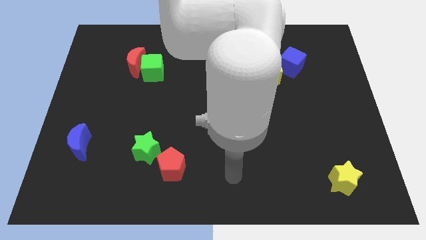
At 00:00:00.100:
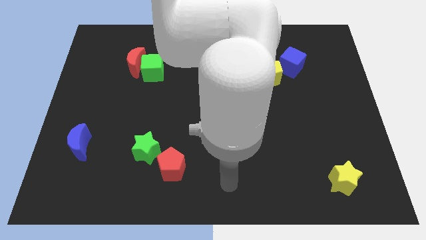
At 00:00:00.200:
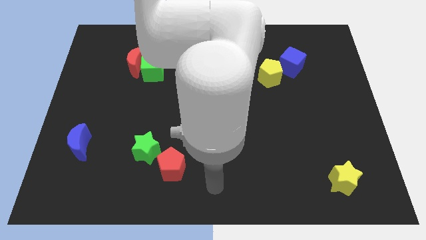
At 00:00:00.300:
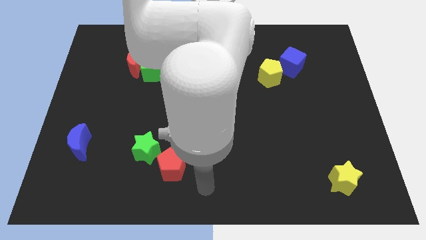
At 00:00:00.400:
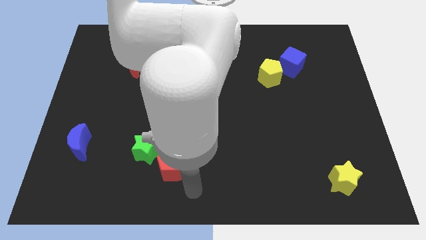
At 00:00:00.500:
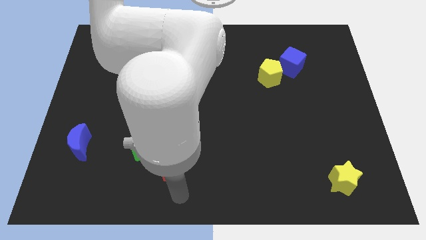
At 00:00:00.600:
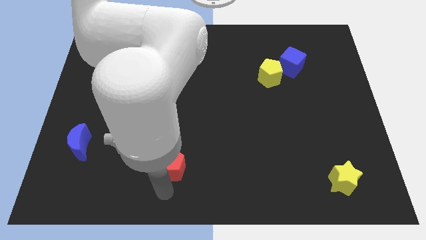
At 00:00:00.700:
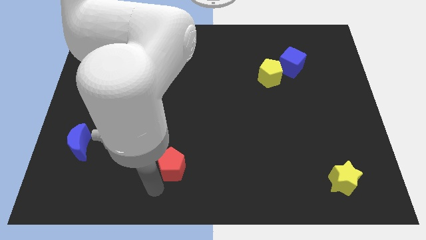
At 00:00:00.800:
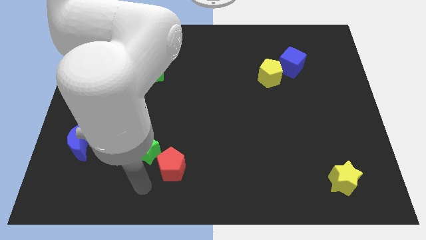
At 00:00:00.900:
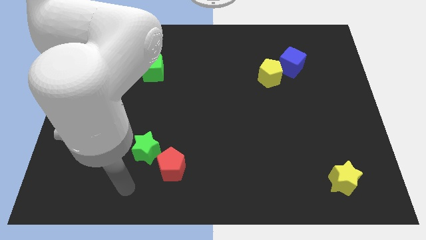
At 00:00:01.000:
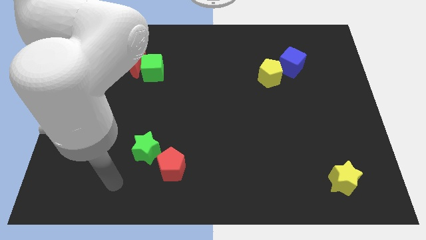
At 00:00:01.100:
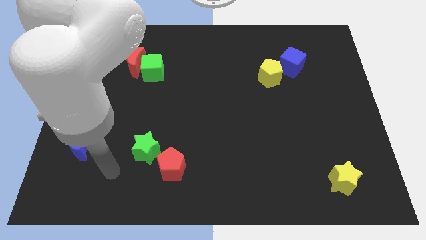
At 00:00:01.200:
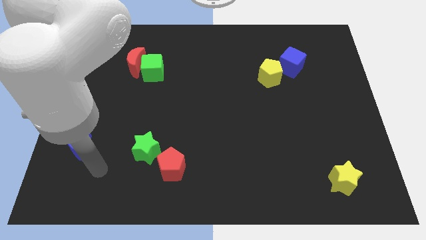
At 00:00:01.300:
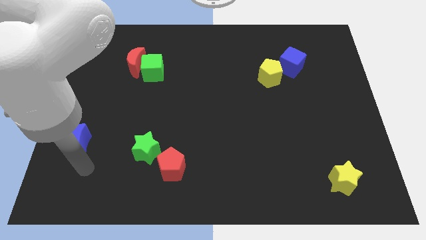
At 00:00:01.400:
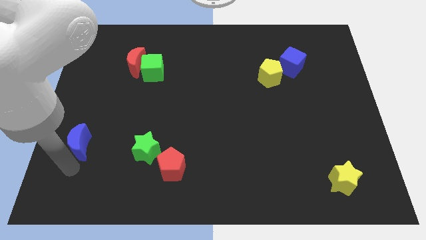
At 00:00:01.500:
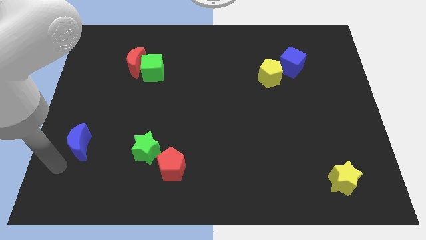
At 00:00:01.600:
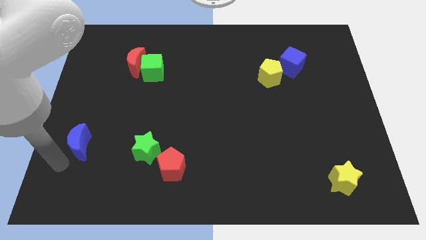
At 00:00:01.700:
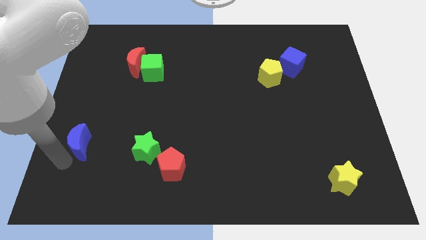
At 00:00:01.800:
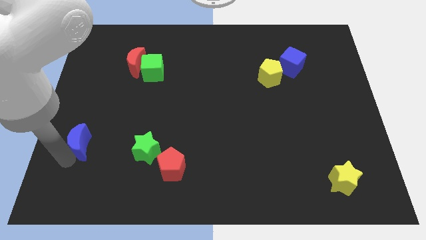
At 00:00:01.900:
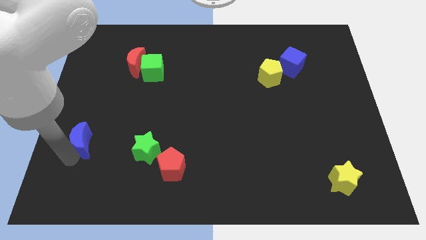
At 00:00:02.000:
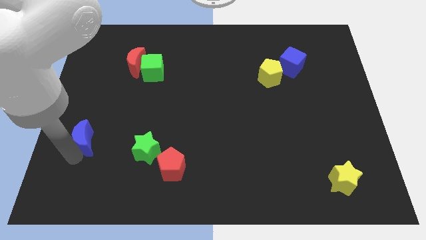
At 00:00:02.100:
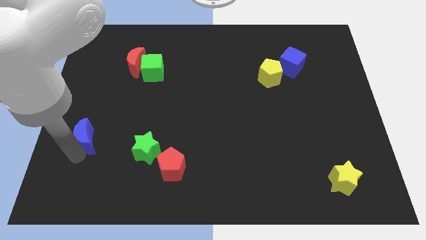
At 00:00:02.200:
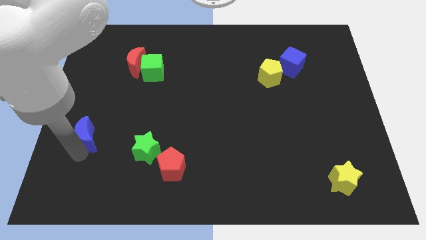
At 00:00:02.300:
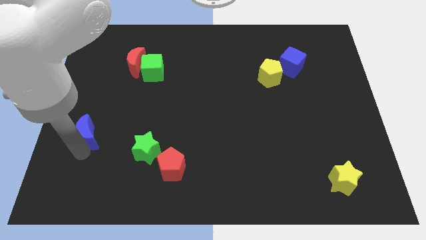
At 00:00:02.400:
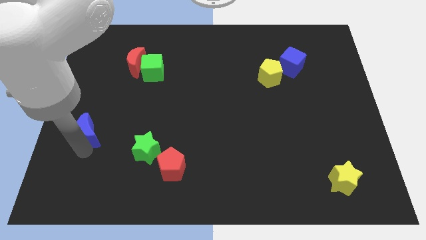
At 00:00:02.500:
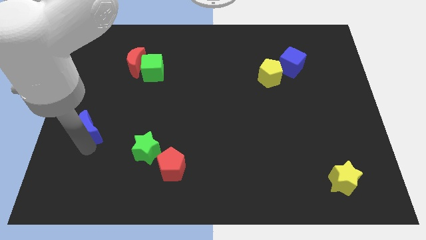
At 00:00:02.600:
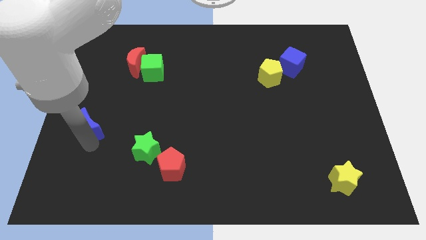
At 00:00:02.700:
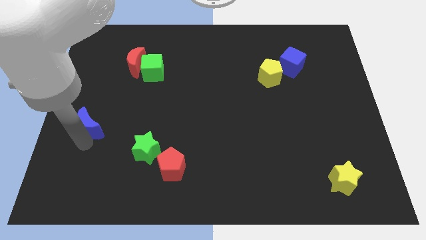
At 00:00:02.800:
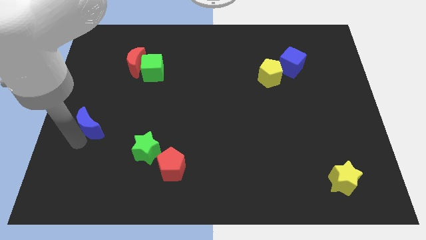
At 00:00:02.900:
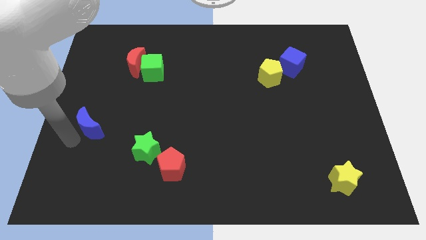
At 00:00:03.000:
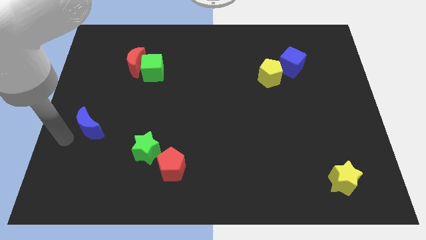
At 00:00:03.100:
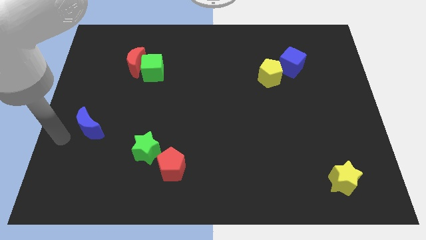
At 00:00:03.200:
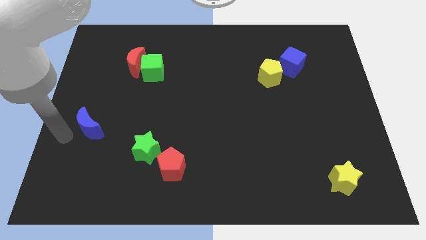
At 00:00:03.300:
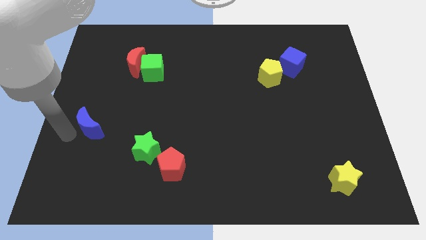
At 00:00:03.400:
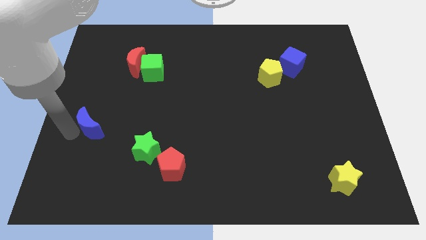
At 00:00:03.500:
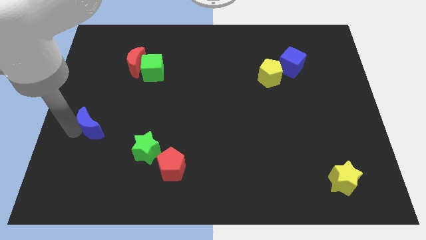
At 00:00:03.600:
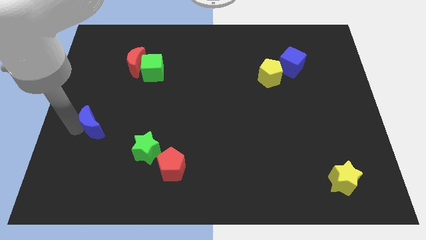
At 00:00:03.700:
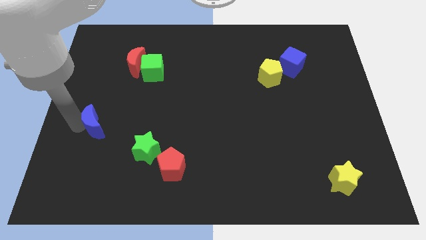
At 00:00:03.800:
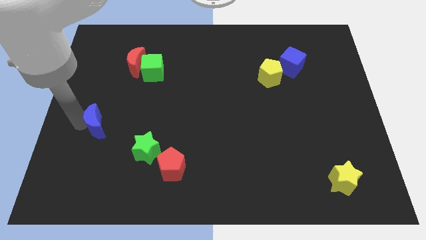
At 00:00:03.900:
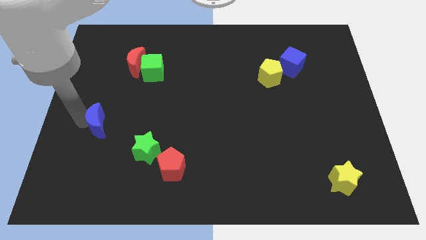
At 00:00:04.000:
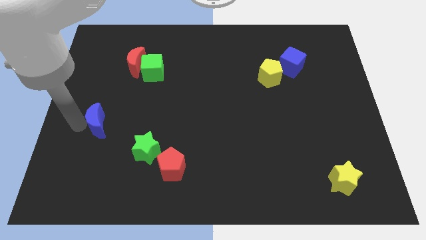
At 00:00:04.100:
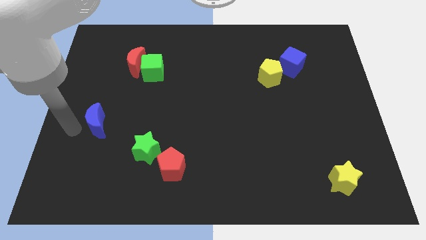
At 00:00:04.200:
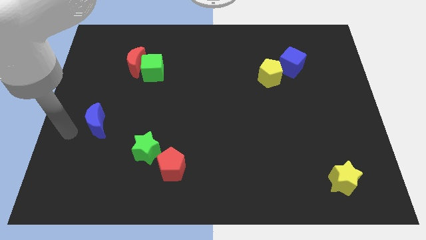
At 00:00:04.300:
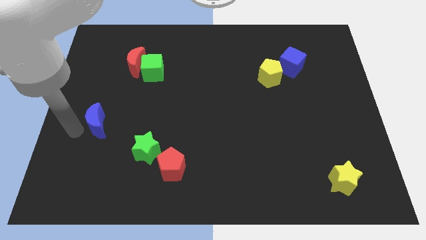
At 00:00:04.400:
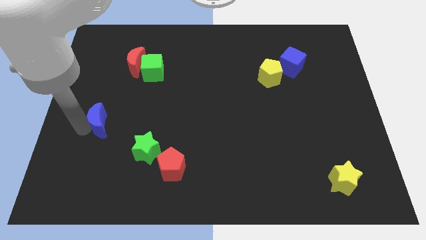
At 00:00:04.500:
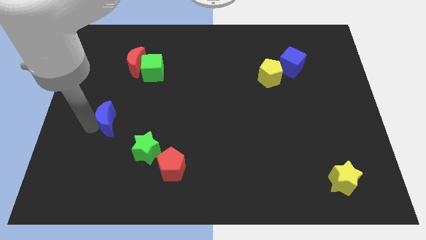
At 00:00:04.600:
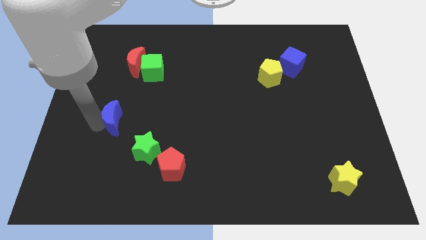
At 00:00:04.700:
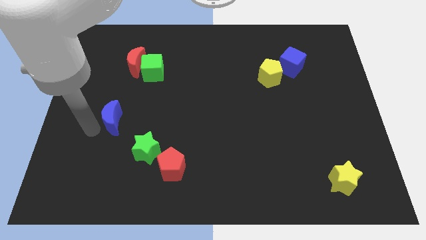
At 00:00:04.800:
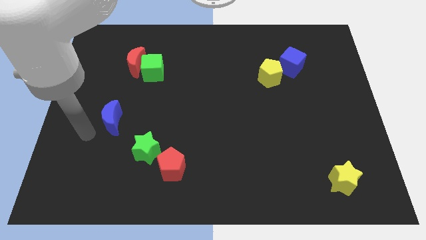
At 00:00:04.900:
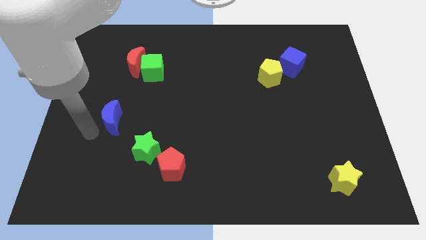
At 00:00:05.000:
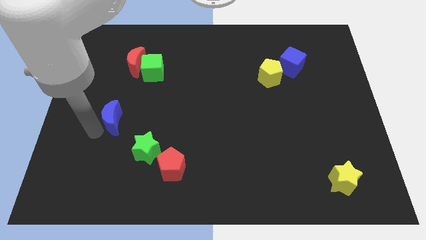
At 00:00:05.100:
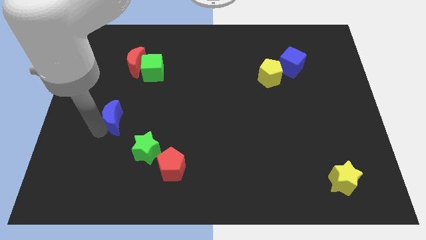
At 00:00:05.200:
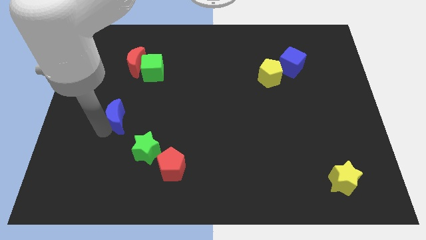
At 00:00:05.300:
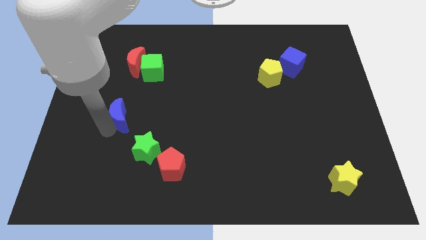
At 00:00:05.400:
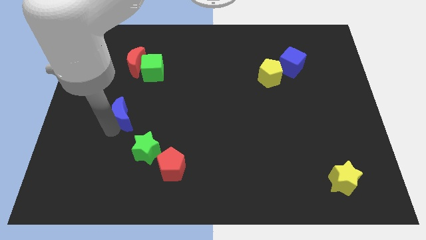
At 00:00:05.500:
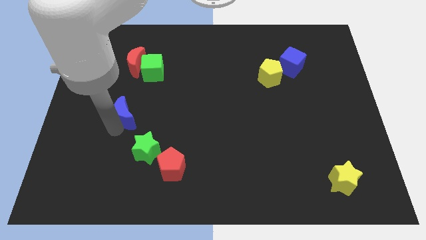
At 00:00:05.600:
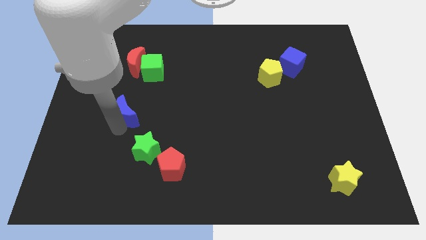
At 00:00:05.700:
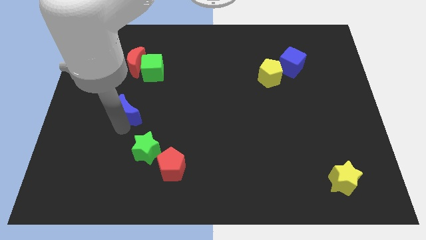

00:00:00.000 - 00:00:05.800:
put the blue moon to the bottom of the green cube

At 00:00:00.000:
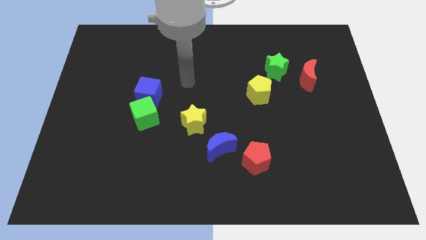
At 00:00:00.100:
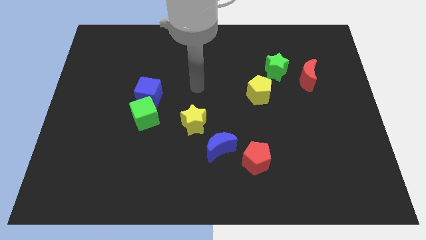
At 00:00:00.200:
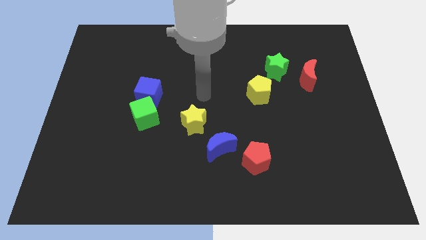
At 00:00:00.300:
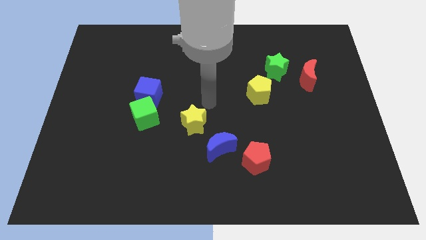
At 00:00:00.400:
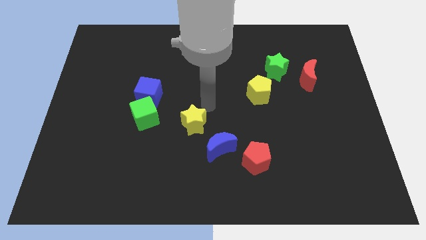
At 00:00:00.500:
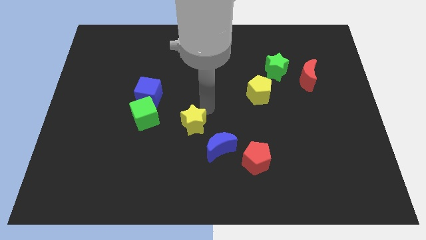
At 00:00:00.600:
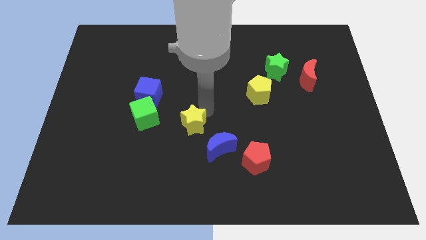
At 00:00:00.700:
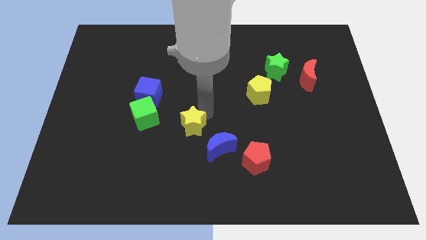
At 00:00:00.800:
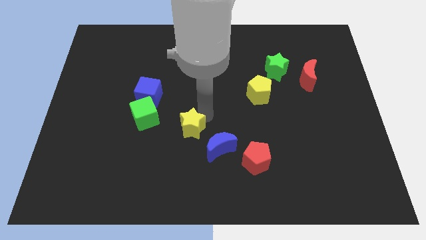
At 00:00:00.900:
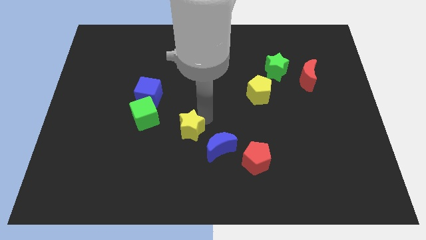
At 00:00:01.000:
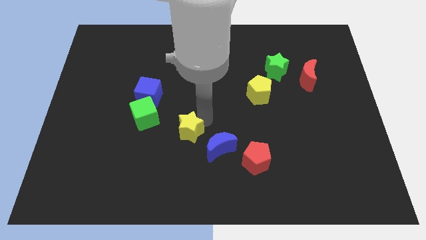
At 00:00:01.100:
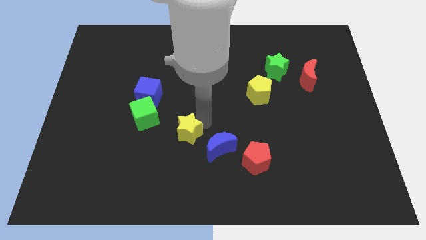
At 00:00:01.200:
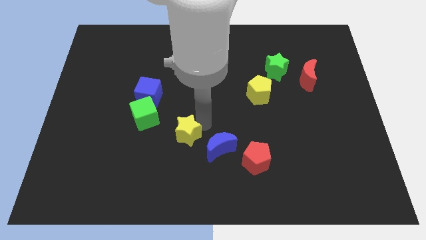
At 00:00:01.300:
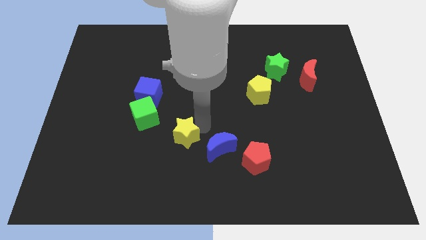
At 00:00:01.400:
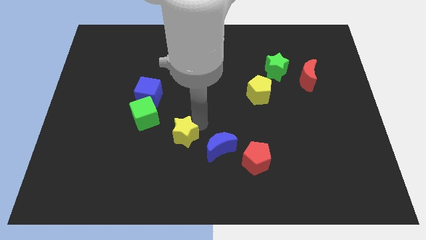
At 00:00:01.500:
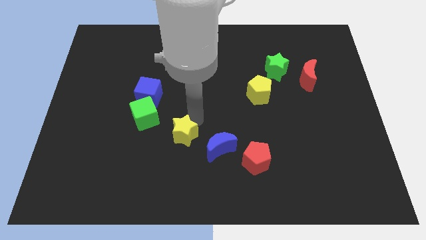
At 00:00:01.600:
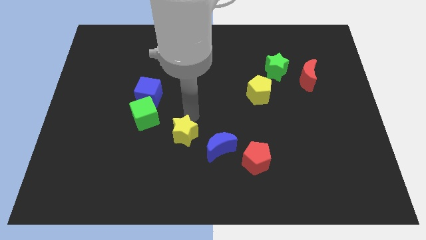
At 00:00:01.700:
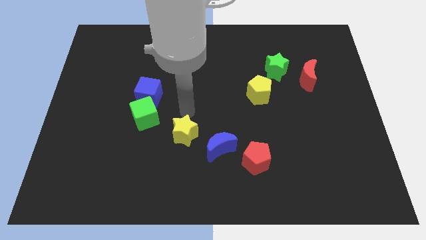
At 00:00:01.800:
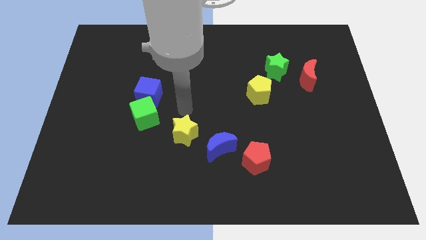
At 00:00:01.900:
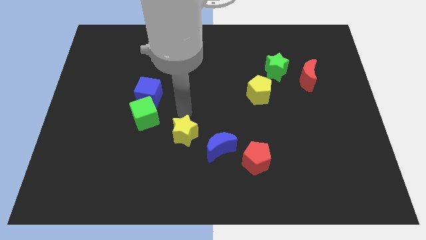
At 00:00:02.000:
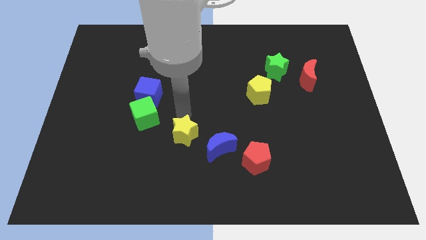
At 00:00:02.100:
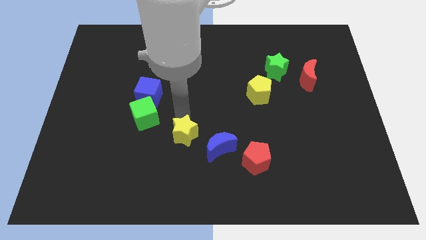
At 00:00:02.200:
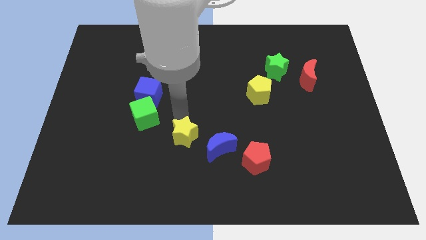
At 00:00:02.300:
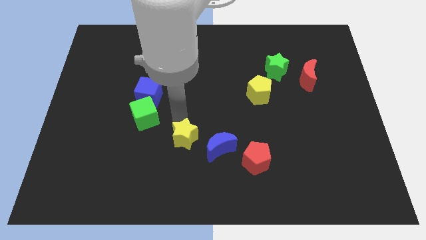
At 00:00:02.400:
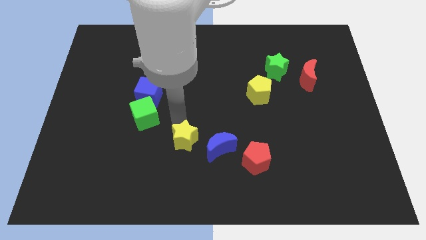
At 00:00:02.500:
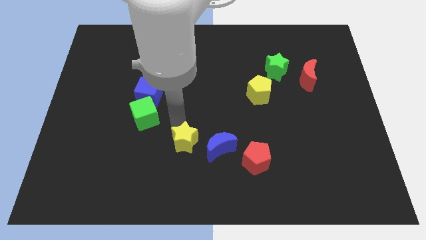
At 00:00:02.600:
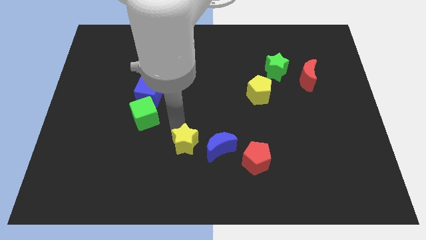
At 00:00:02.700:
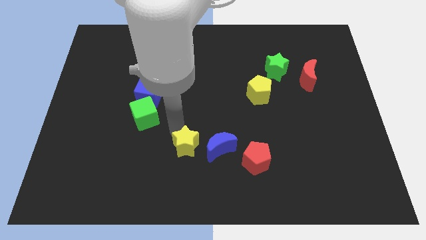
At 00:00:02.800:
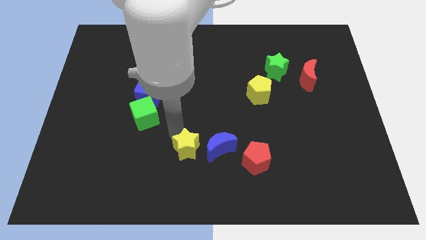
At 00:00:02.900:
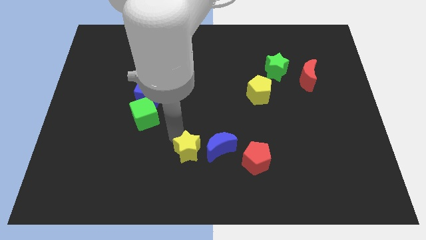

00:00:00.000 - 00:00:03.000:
move the yellow star to the bottom left of the blue moon
